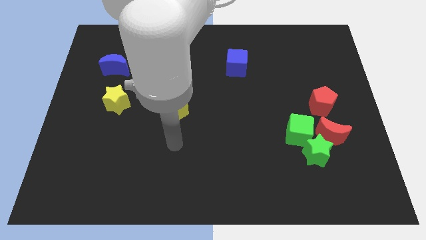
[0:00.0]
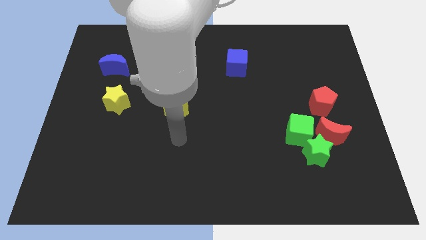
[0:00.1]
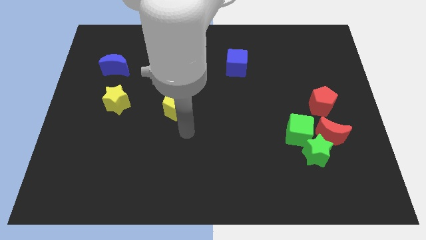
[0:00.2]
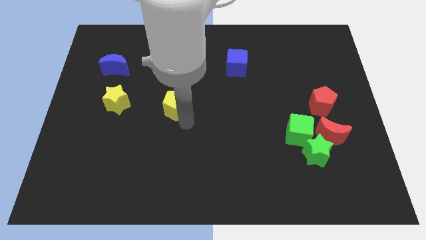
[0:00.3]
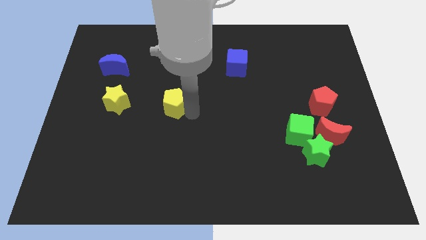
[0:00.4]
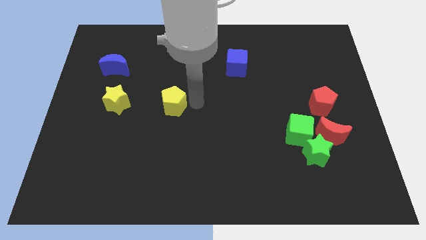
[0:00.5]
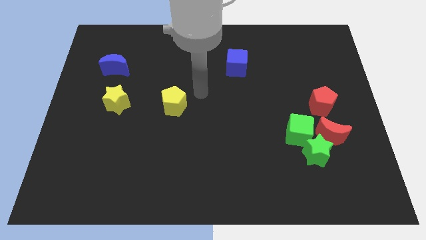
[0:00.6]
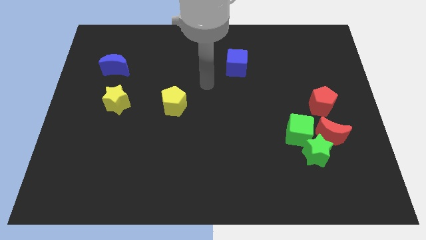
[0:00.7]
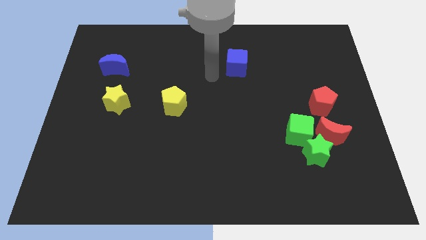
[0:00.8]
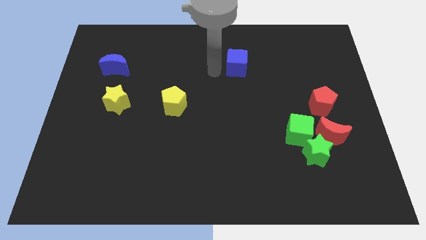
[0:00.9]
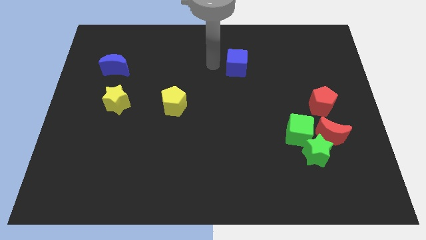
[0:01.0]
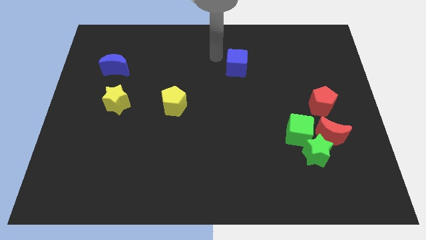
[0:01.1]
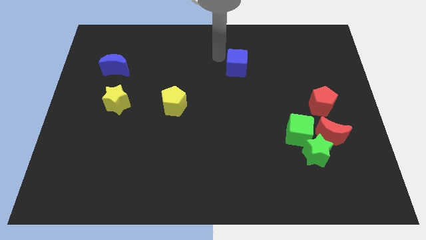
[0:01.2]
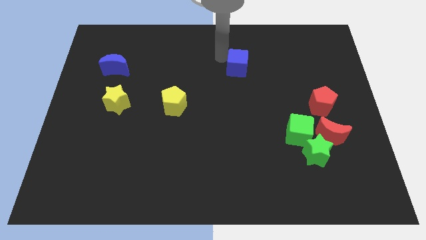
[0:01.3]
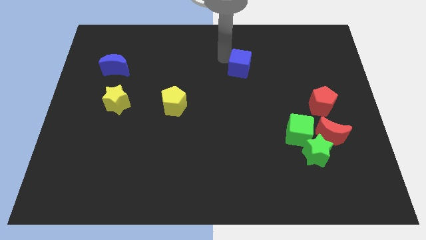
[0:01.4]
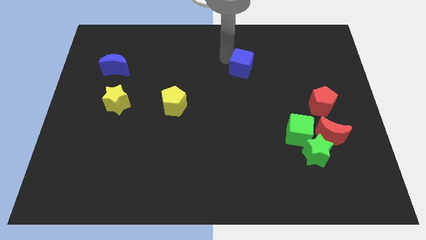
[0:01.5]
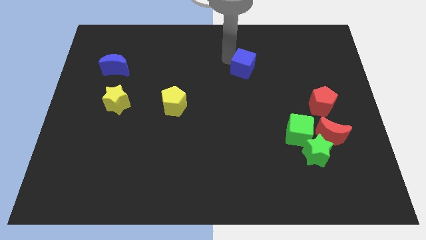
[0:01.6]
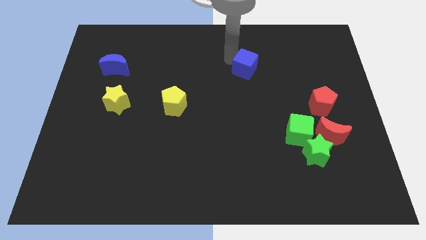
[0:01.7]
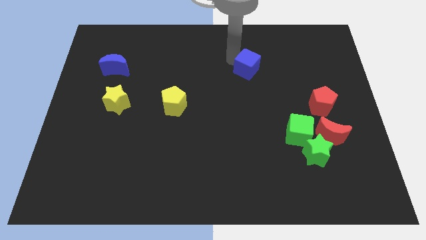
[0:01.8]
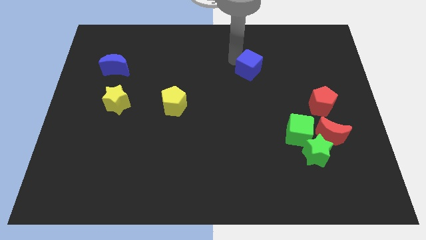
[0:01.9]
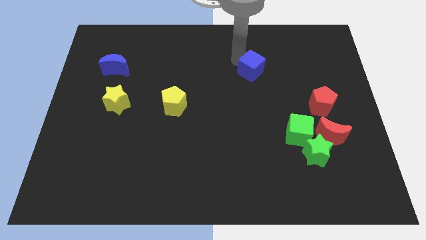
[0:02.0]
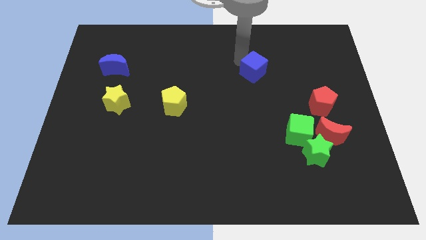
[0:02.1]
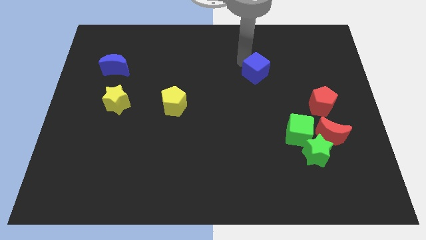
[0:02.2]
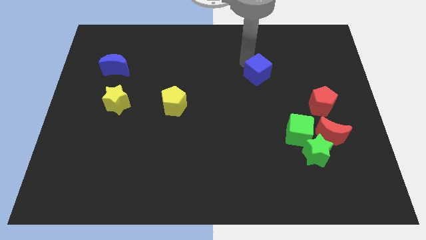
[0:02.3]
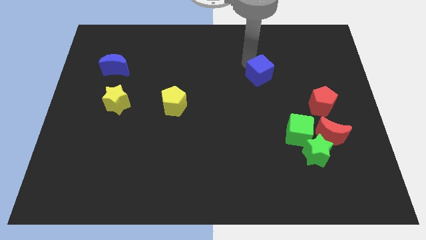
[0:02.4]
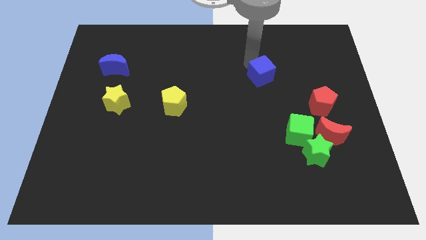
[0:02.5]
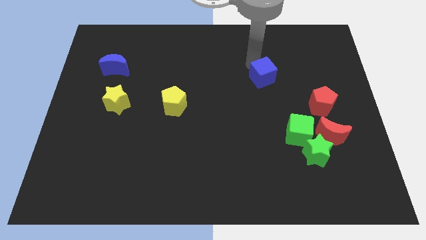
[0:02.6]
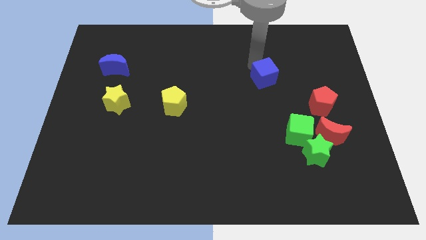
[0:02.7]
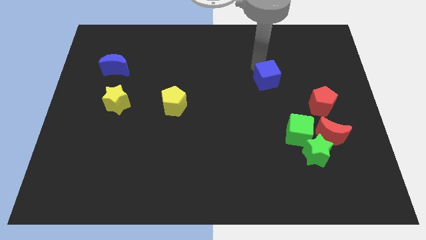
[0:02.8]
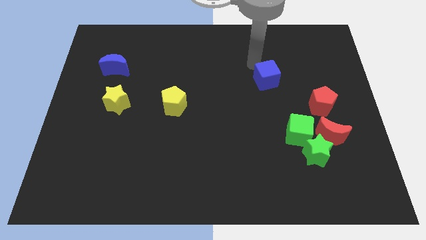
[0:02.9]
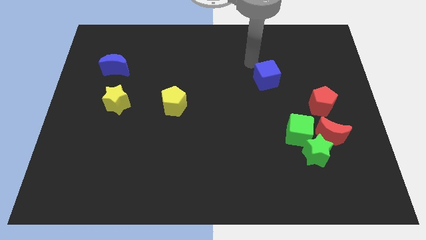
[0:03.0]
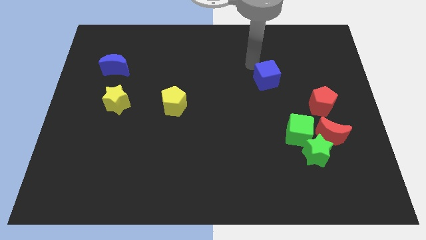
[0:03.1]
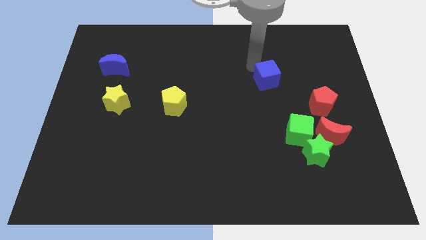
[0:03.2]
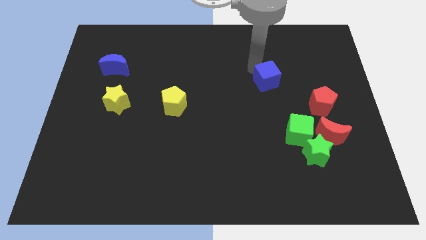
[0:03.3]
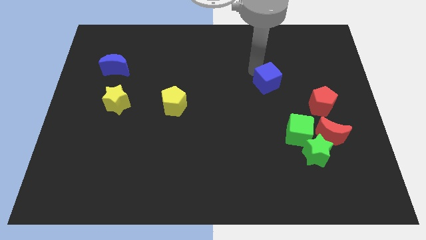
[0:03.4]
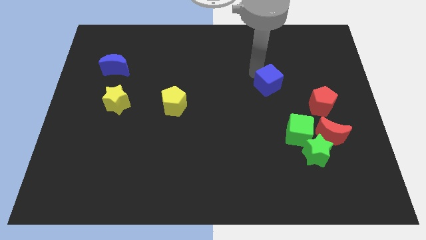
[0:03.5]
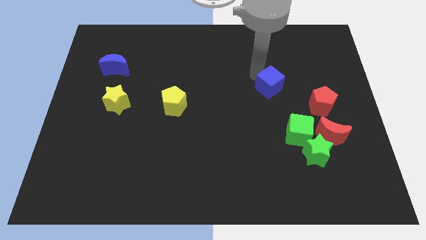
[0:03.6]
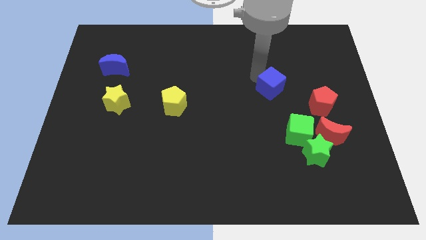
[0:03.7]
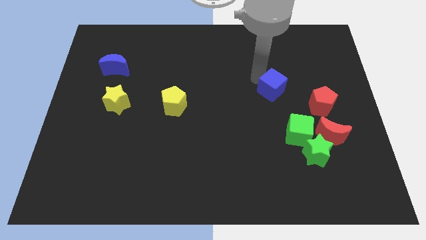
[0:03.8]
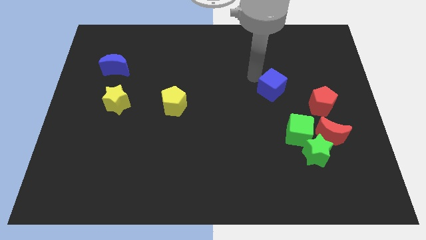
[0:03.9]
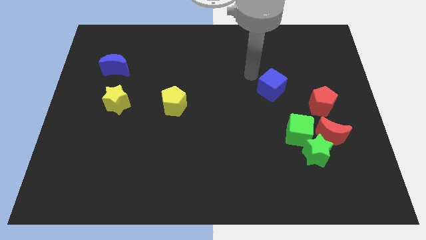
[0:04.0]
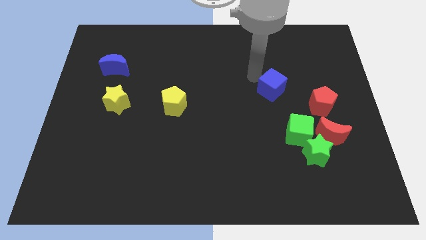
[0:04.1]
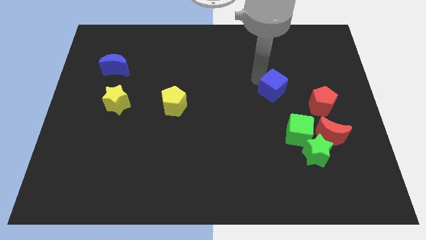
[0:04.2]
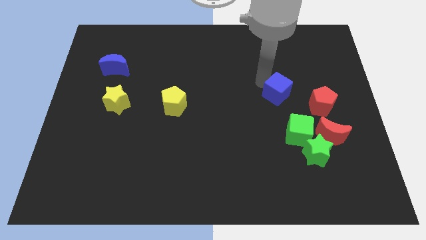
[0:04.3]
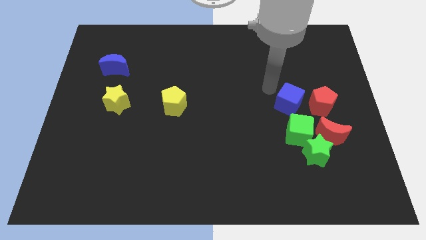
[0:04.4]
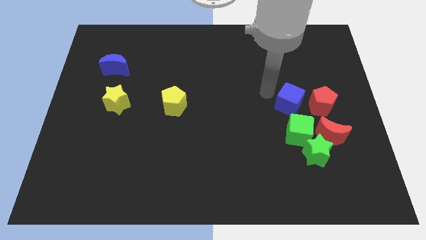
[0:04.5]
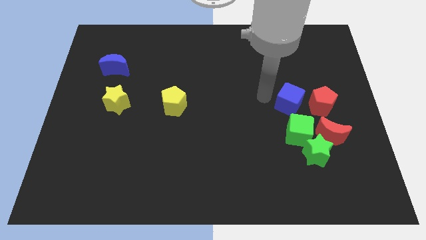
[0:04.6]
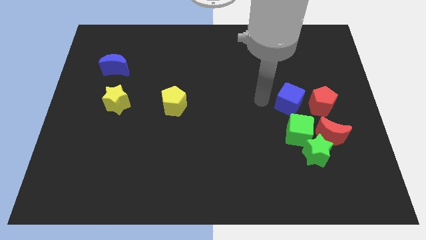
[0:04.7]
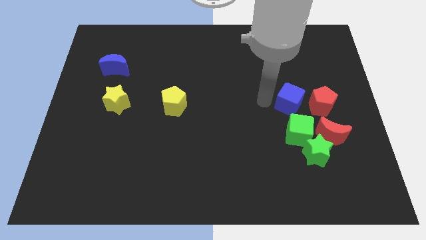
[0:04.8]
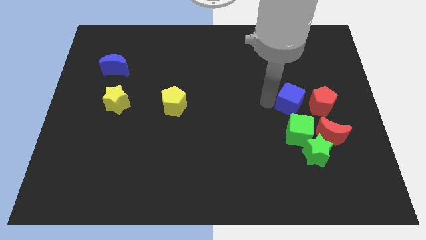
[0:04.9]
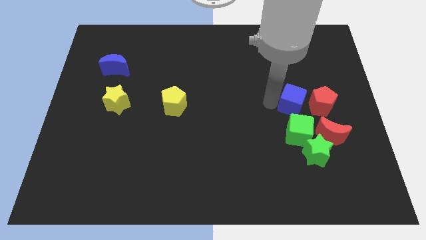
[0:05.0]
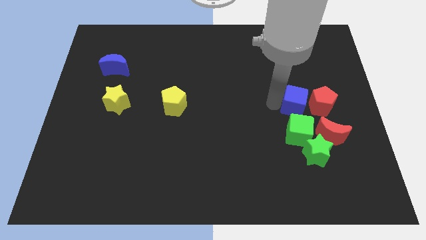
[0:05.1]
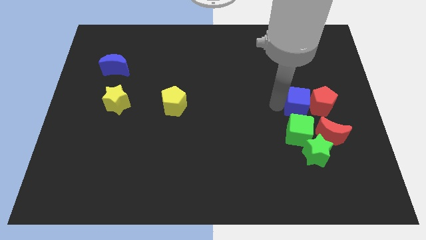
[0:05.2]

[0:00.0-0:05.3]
move the blue cube next to the red pentagon

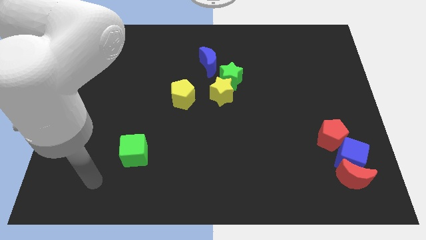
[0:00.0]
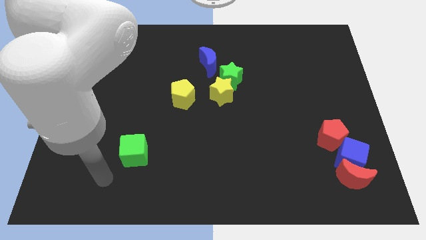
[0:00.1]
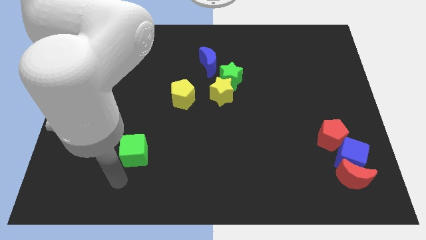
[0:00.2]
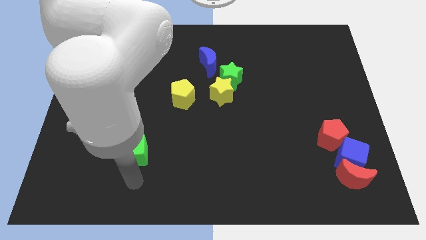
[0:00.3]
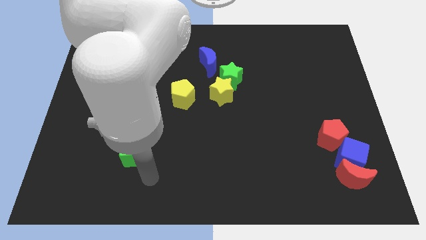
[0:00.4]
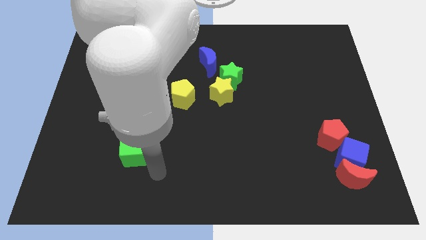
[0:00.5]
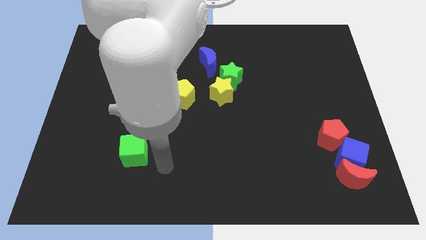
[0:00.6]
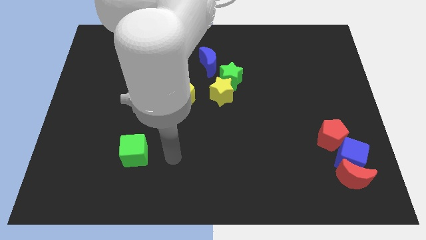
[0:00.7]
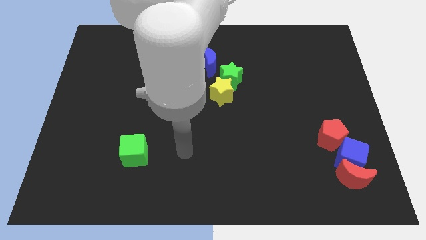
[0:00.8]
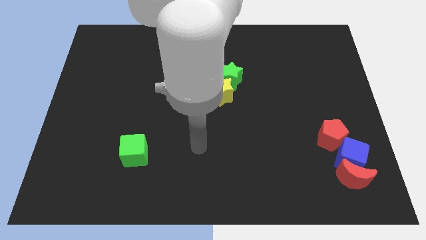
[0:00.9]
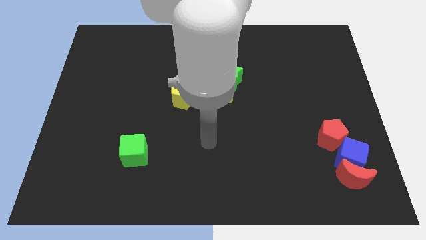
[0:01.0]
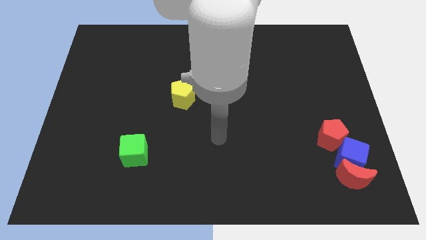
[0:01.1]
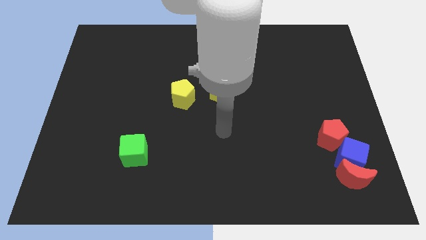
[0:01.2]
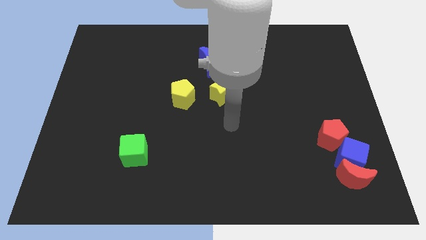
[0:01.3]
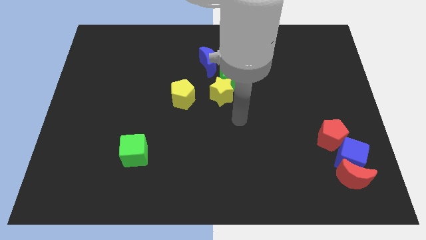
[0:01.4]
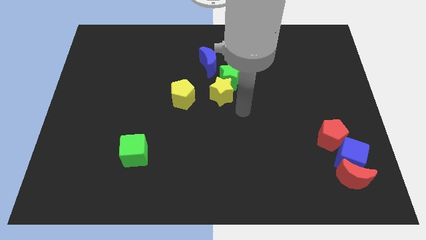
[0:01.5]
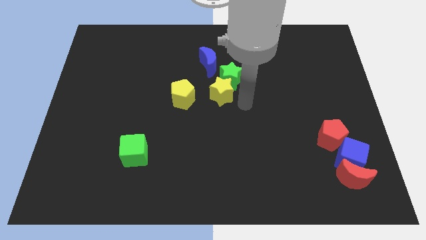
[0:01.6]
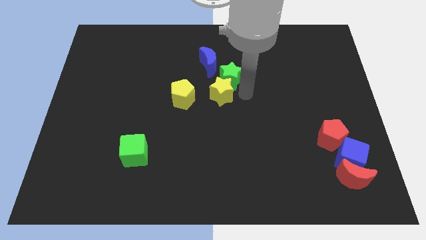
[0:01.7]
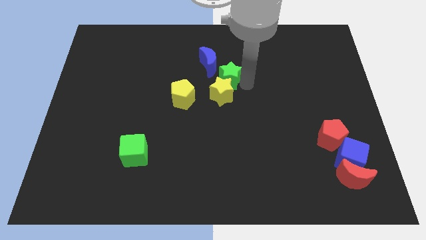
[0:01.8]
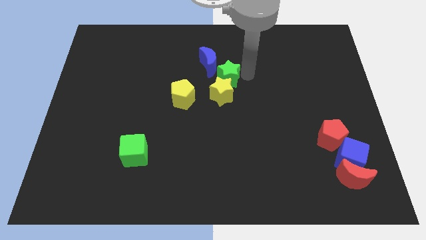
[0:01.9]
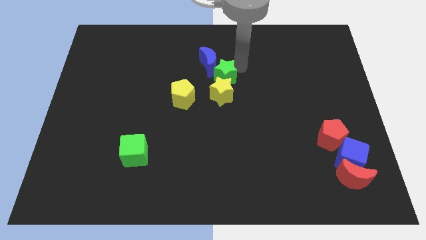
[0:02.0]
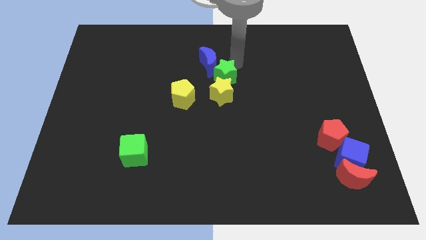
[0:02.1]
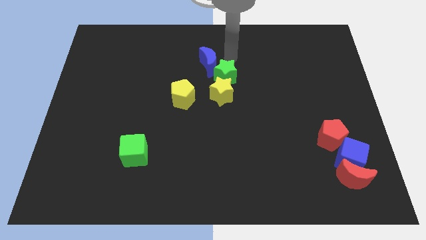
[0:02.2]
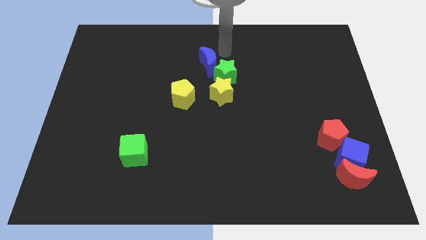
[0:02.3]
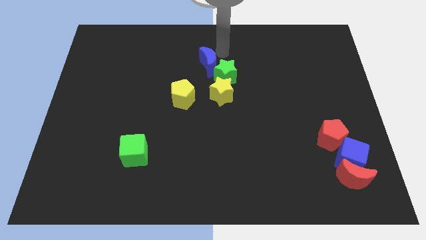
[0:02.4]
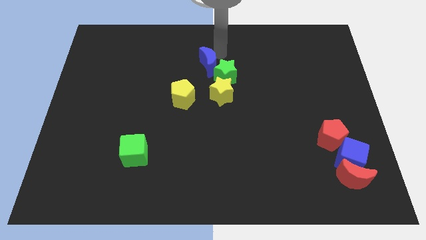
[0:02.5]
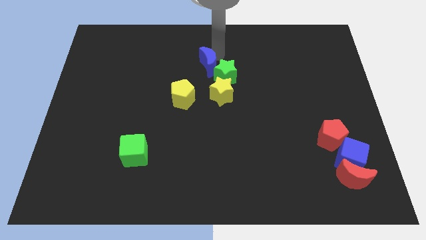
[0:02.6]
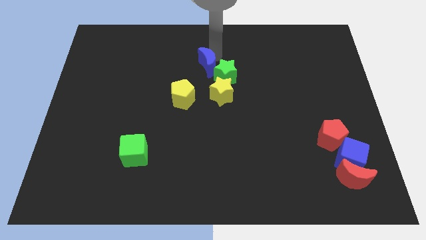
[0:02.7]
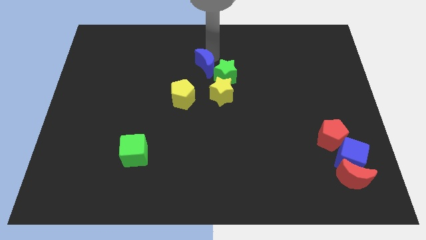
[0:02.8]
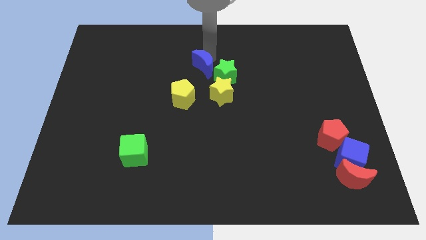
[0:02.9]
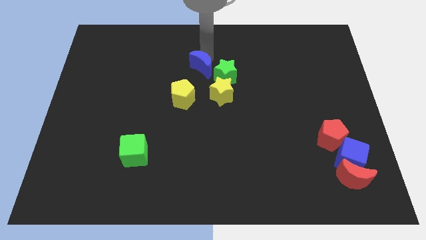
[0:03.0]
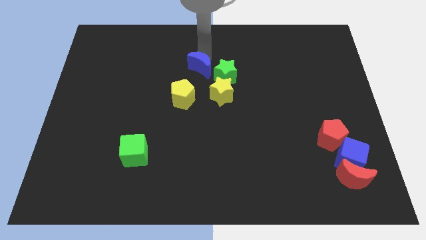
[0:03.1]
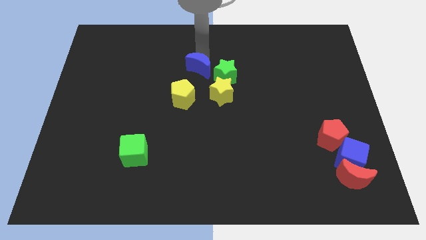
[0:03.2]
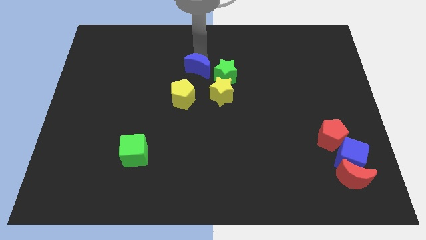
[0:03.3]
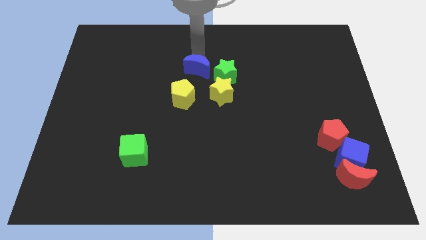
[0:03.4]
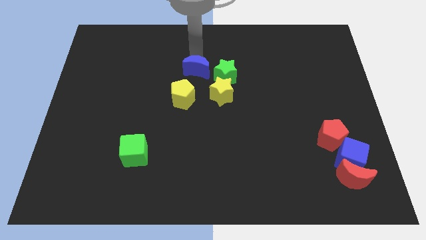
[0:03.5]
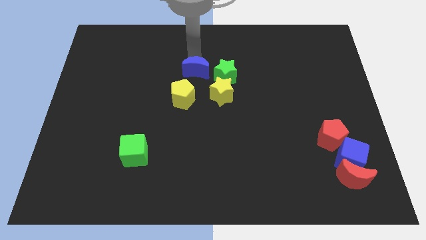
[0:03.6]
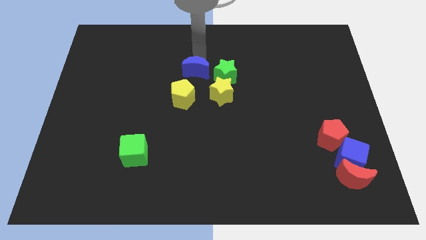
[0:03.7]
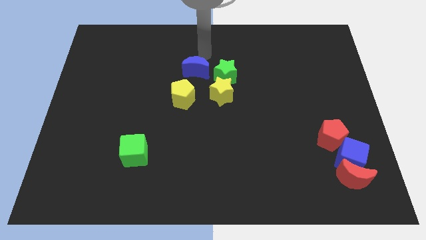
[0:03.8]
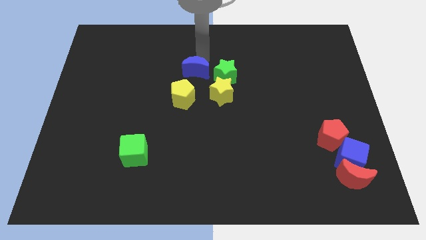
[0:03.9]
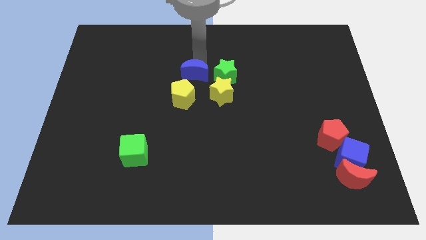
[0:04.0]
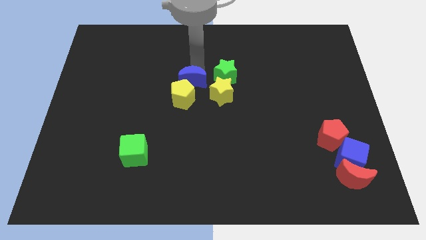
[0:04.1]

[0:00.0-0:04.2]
slide the blue moon next to the yellow pentagon
